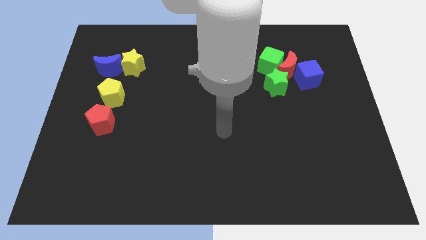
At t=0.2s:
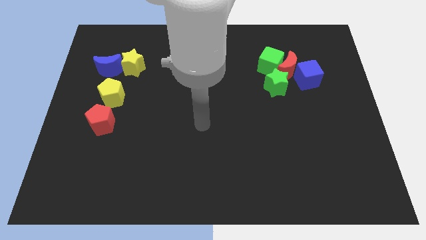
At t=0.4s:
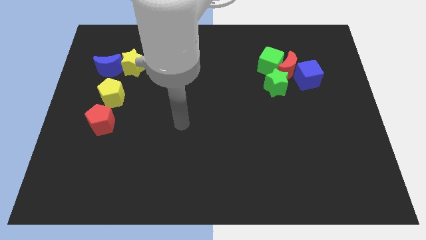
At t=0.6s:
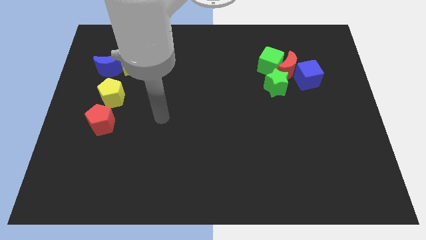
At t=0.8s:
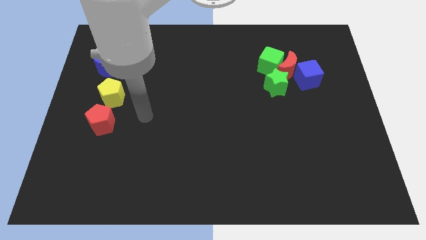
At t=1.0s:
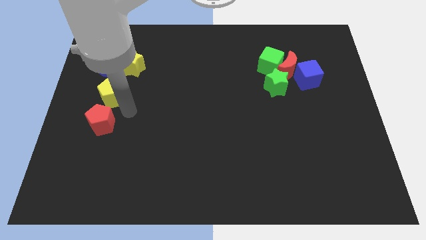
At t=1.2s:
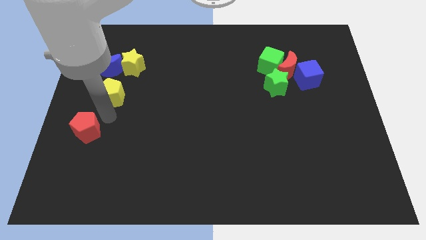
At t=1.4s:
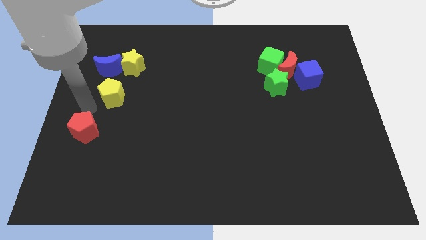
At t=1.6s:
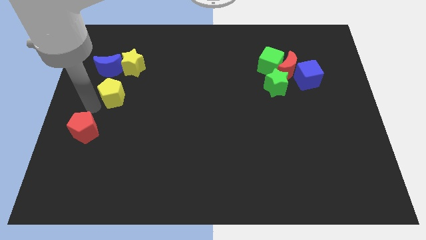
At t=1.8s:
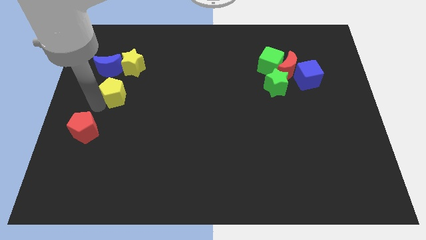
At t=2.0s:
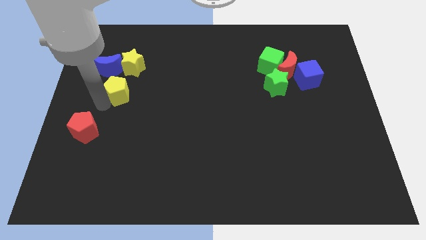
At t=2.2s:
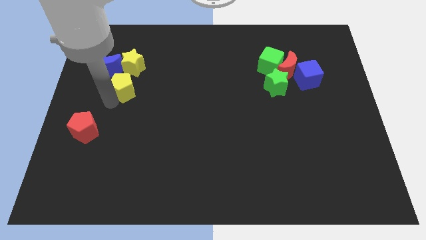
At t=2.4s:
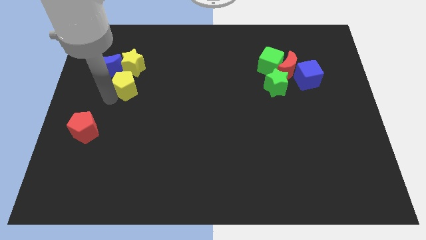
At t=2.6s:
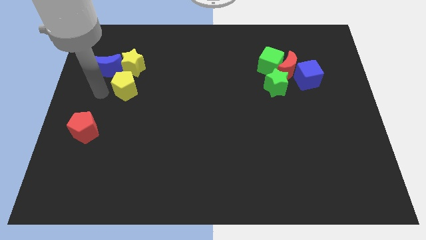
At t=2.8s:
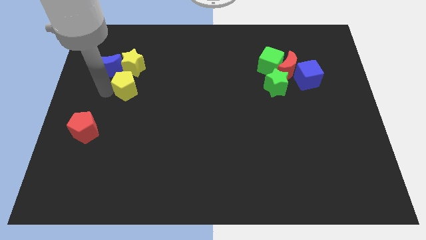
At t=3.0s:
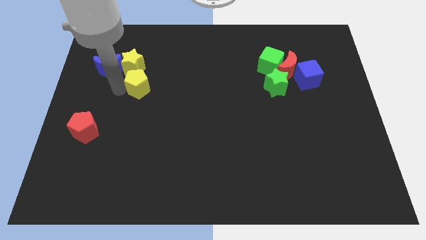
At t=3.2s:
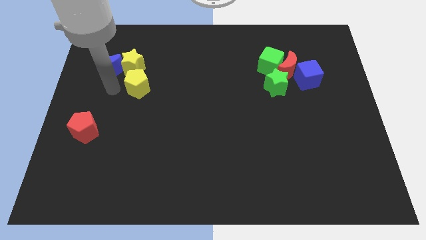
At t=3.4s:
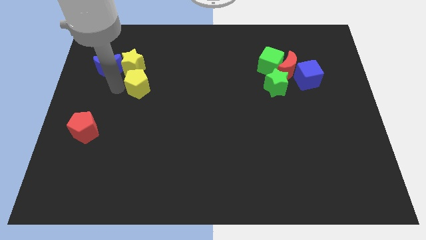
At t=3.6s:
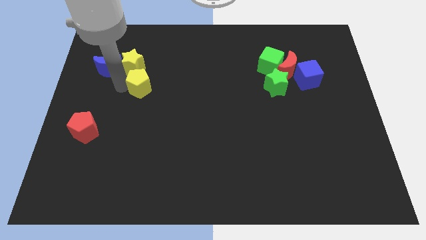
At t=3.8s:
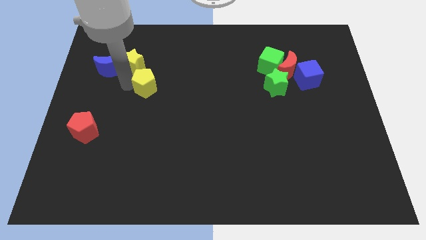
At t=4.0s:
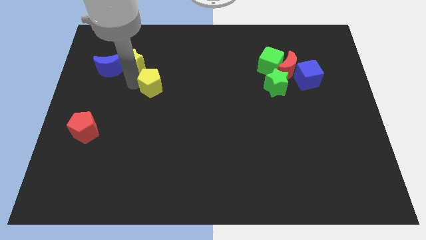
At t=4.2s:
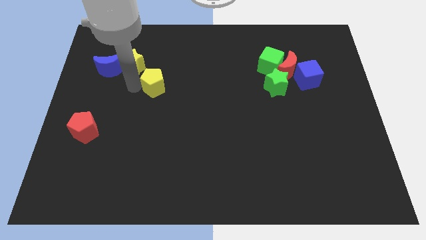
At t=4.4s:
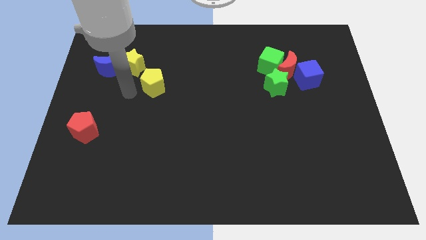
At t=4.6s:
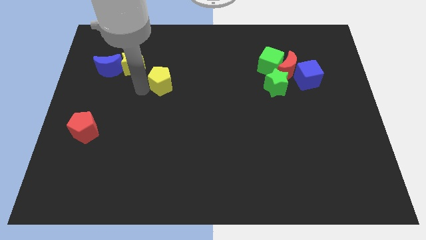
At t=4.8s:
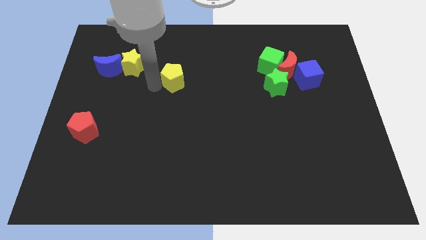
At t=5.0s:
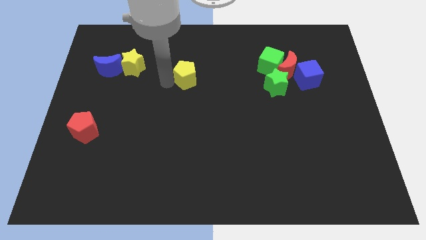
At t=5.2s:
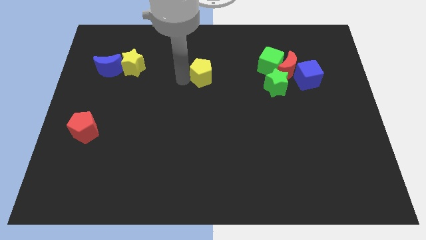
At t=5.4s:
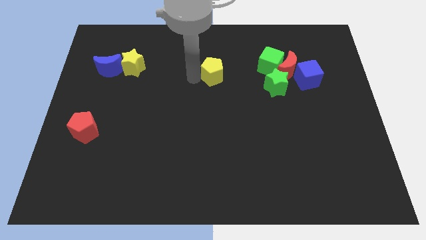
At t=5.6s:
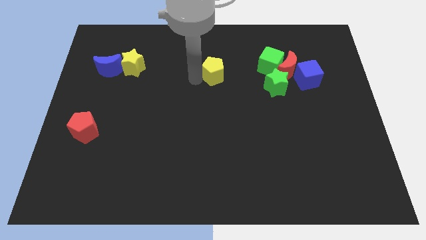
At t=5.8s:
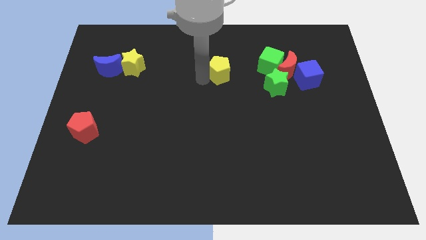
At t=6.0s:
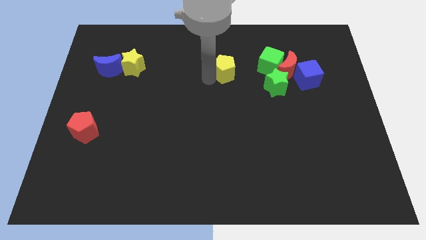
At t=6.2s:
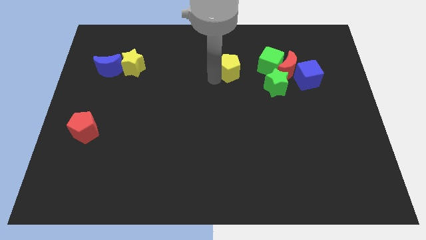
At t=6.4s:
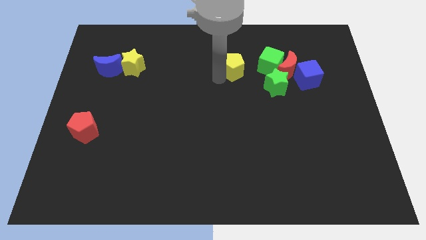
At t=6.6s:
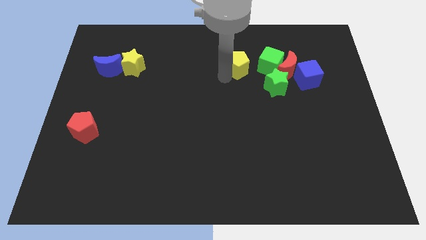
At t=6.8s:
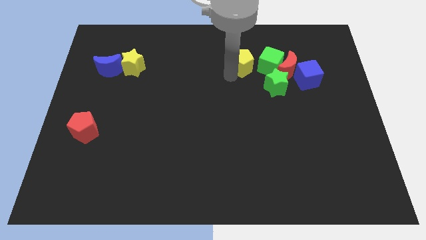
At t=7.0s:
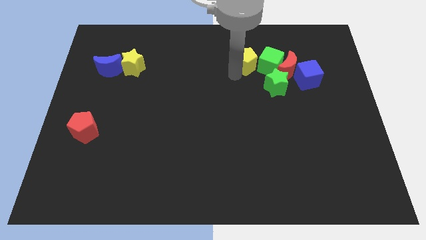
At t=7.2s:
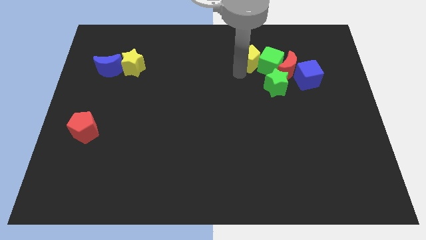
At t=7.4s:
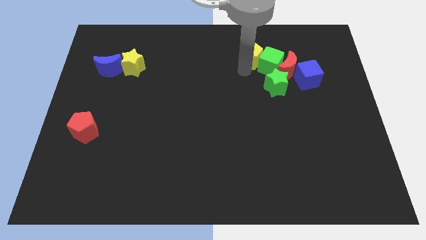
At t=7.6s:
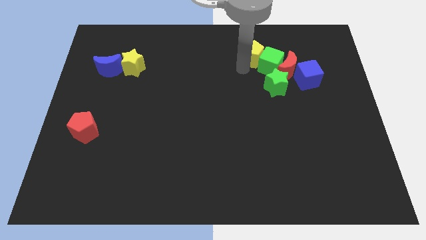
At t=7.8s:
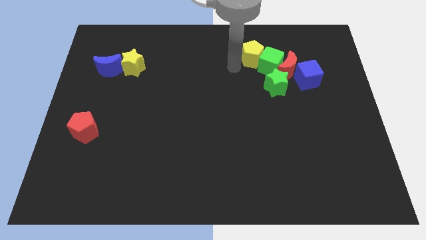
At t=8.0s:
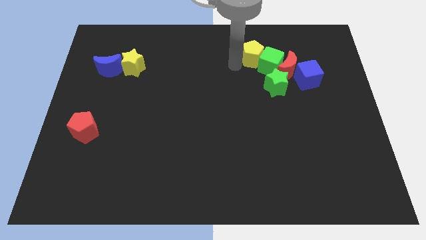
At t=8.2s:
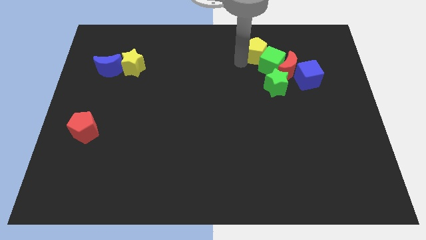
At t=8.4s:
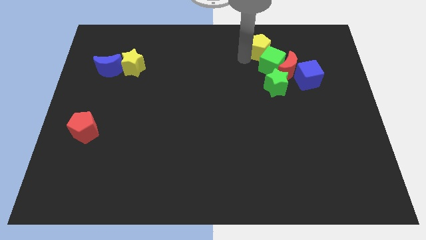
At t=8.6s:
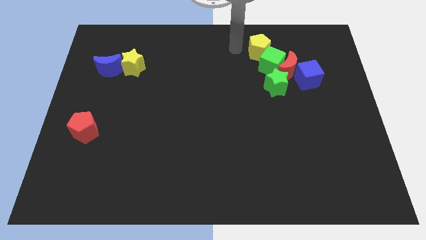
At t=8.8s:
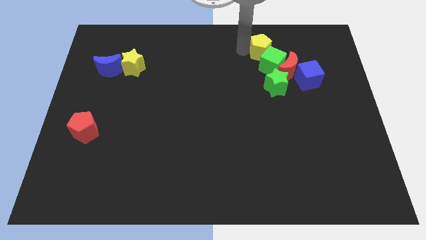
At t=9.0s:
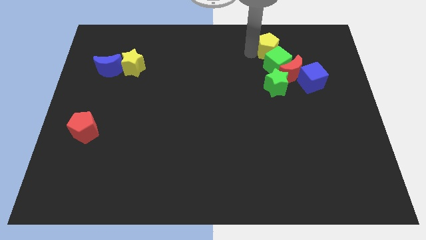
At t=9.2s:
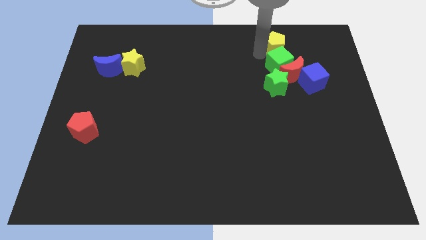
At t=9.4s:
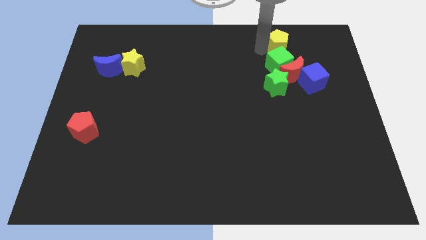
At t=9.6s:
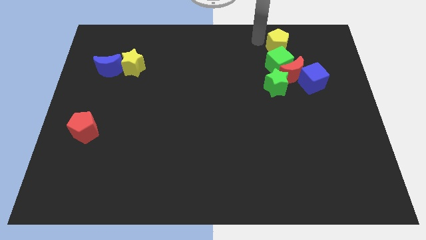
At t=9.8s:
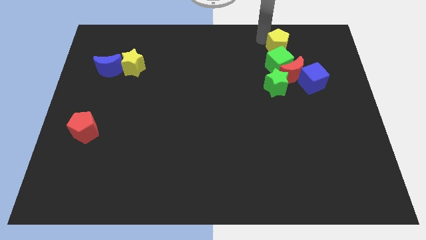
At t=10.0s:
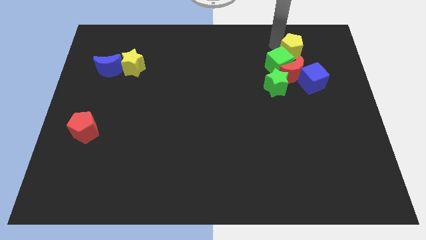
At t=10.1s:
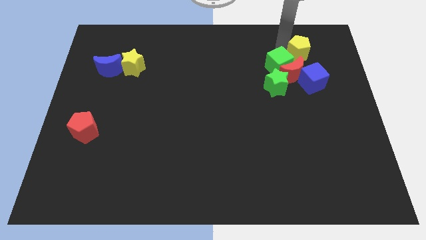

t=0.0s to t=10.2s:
slide the yellow pentagon to the top right side of the red moon

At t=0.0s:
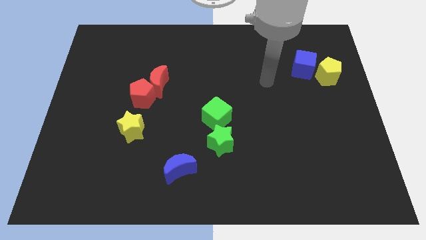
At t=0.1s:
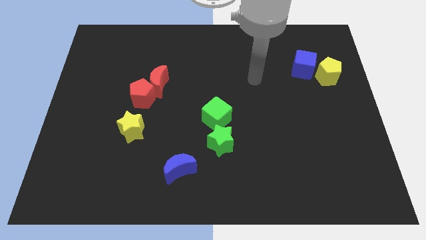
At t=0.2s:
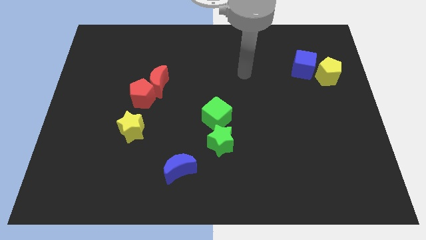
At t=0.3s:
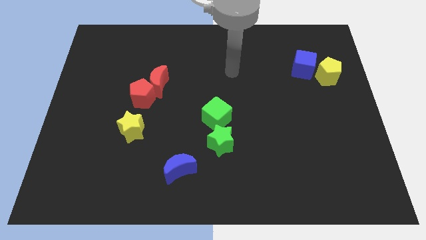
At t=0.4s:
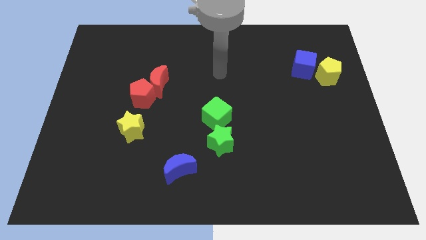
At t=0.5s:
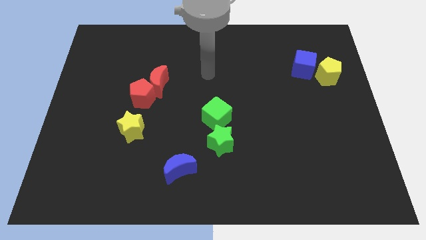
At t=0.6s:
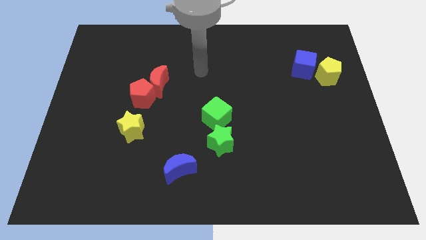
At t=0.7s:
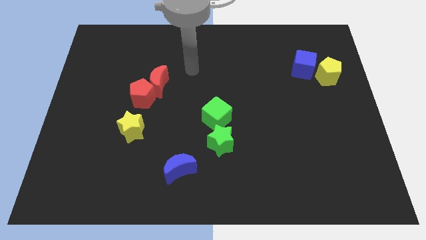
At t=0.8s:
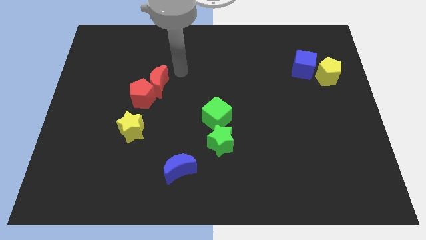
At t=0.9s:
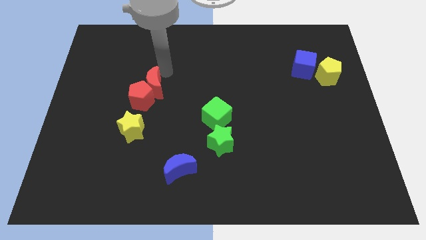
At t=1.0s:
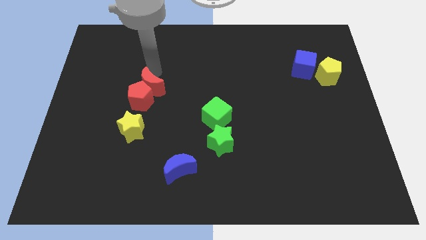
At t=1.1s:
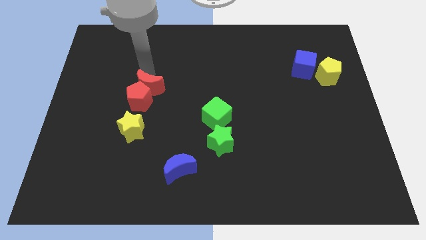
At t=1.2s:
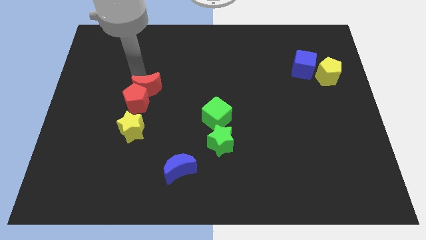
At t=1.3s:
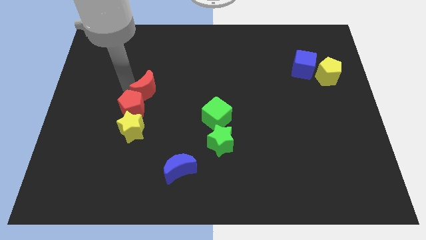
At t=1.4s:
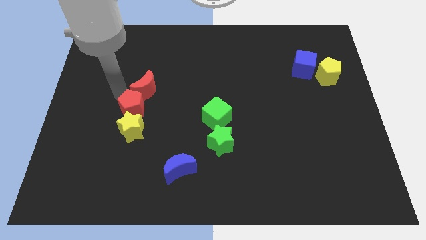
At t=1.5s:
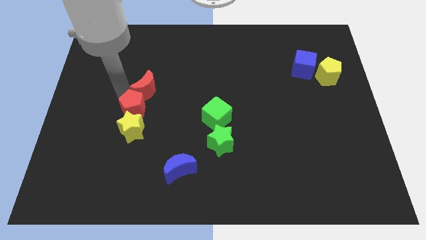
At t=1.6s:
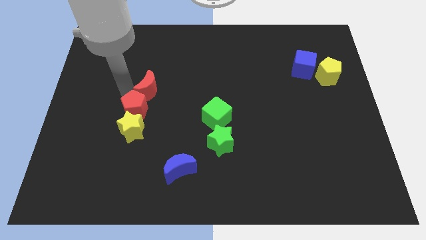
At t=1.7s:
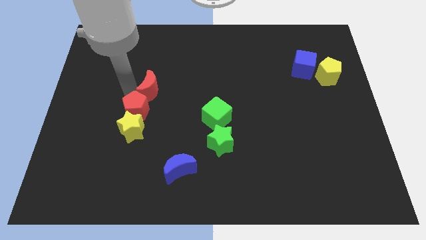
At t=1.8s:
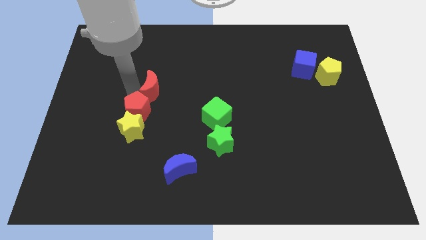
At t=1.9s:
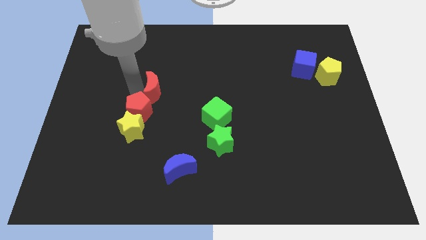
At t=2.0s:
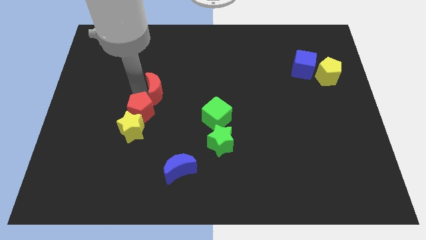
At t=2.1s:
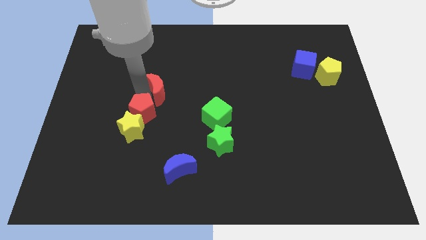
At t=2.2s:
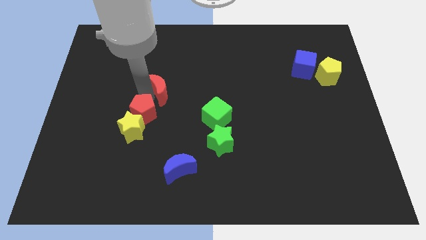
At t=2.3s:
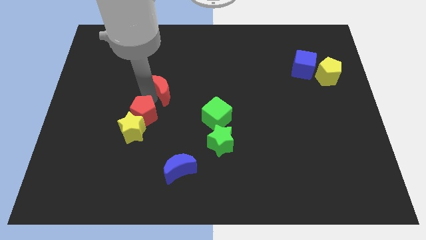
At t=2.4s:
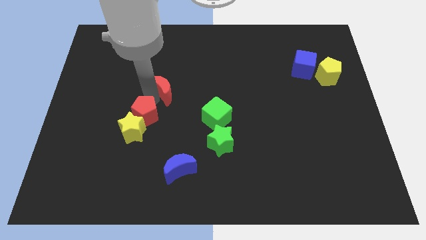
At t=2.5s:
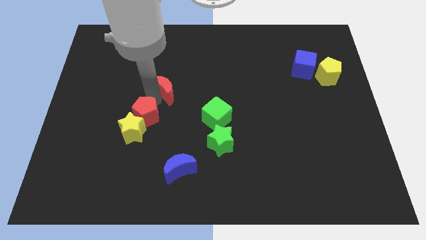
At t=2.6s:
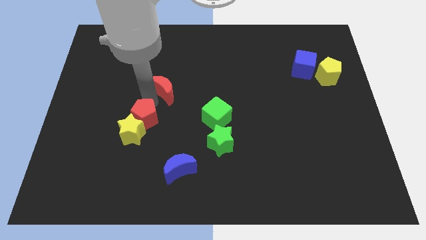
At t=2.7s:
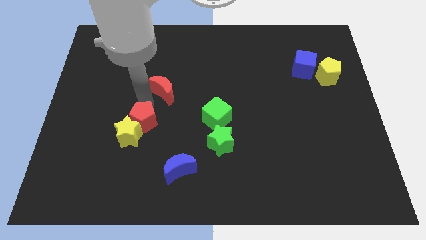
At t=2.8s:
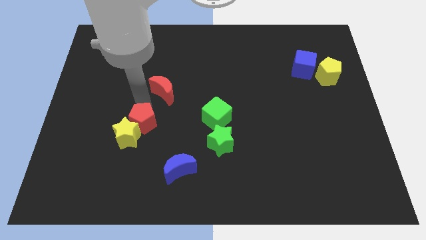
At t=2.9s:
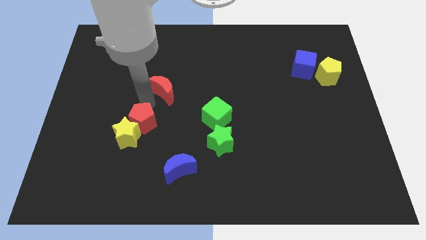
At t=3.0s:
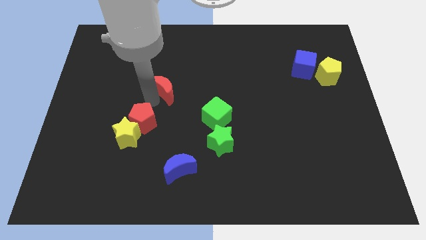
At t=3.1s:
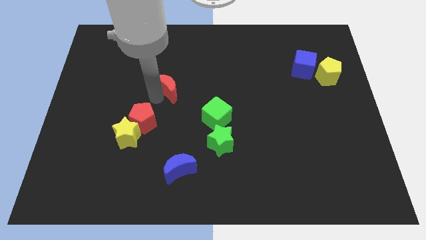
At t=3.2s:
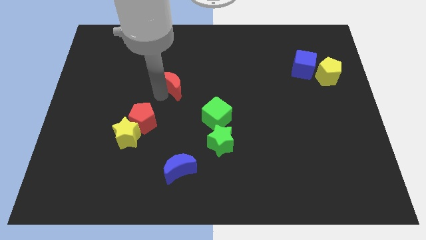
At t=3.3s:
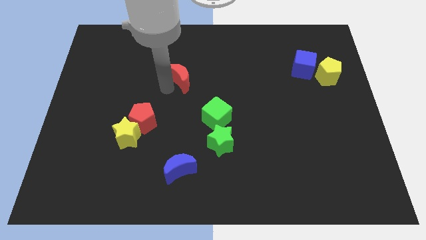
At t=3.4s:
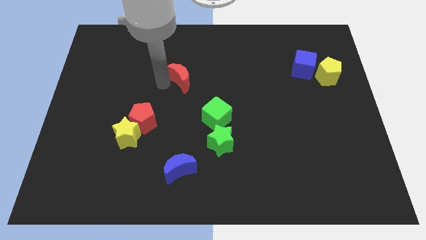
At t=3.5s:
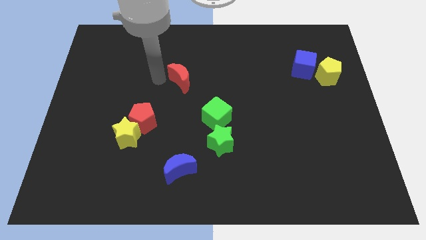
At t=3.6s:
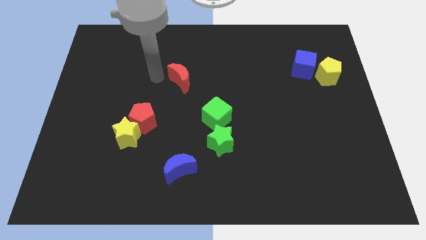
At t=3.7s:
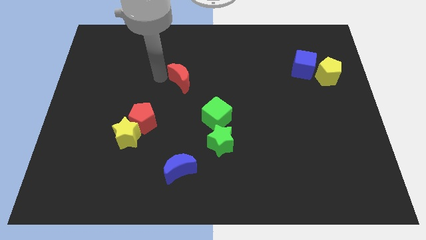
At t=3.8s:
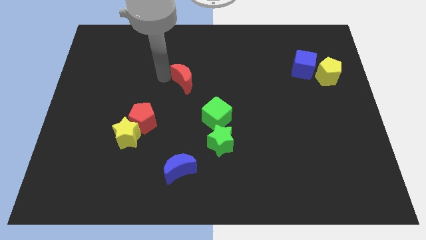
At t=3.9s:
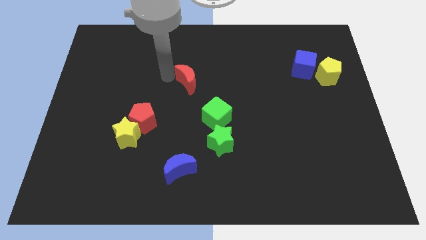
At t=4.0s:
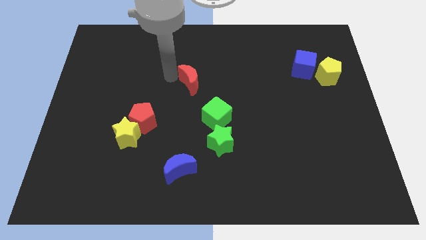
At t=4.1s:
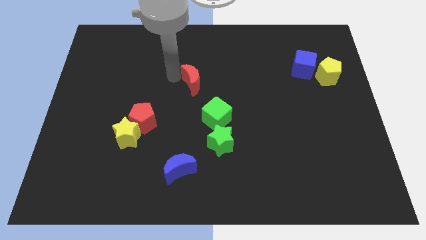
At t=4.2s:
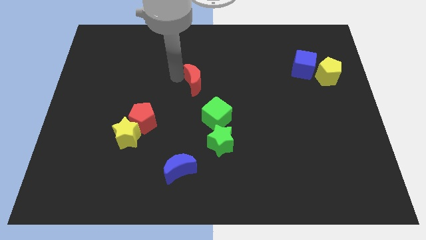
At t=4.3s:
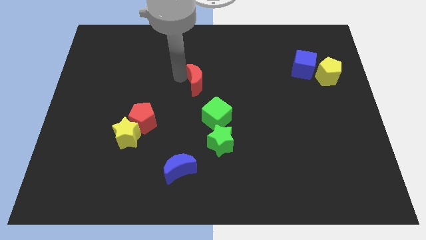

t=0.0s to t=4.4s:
put the red moon to the top of the green cube
